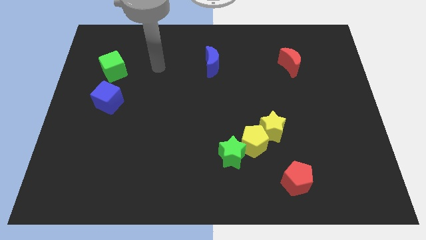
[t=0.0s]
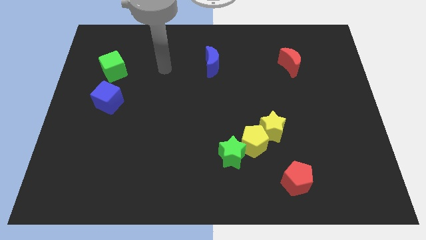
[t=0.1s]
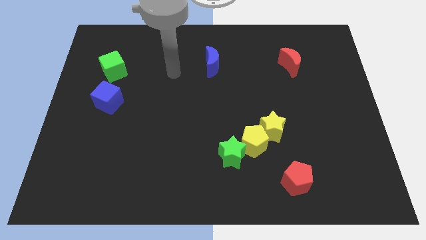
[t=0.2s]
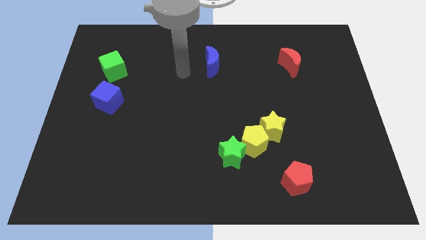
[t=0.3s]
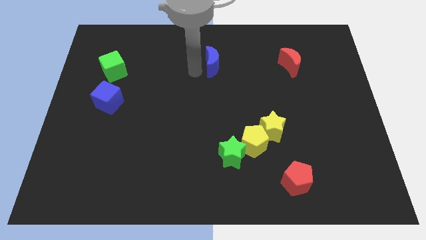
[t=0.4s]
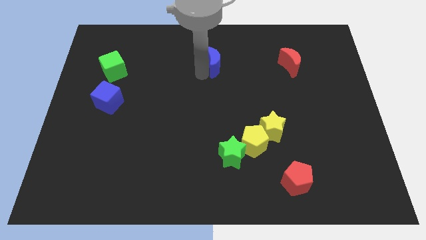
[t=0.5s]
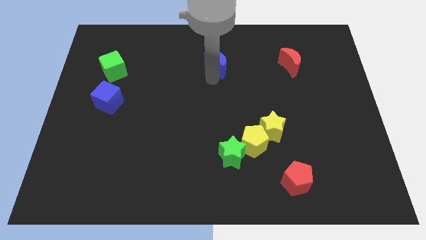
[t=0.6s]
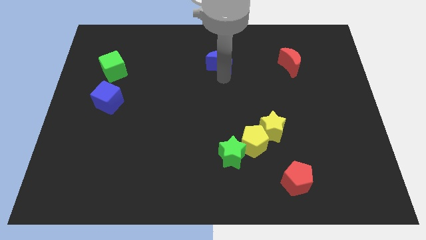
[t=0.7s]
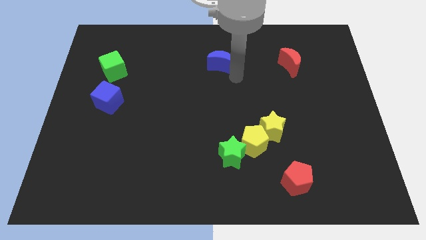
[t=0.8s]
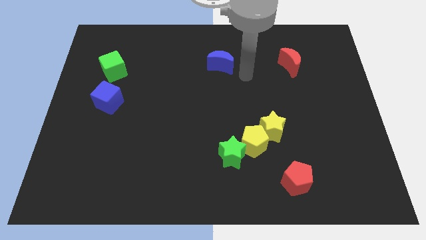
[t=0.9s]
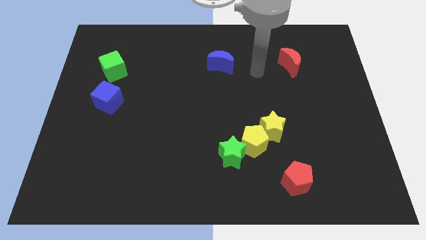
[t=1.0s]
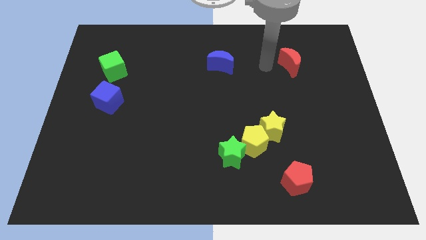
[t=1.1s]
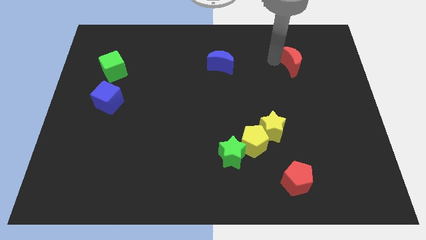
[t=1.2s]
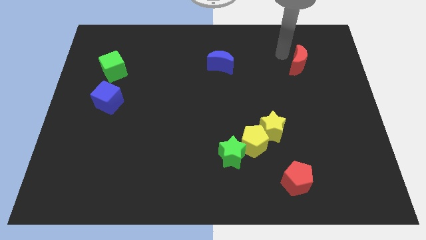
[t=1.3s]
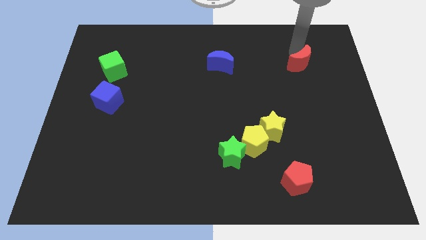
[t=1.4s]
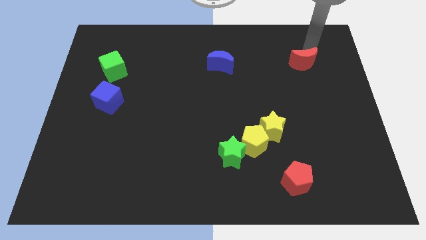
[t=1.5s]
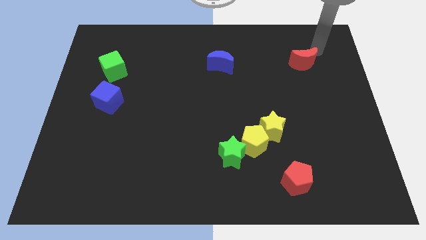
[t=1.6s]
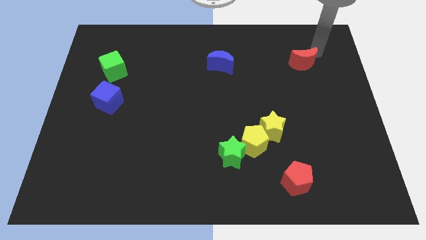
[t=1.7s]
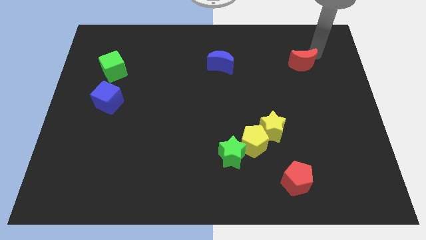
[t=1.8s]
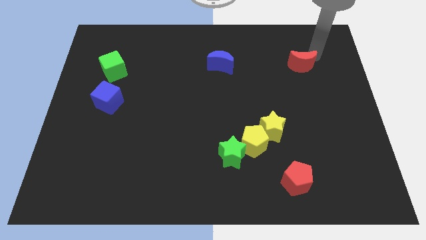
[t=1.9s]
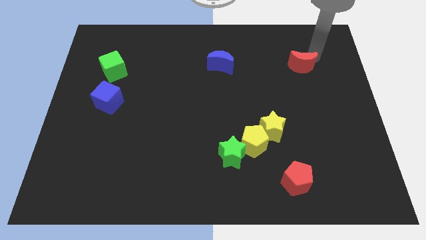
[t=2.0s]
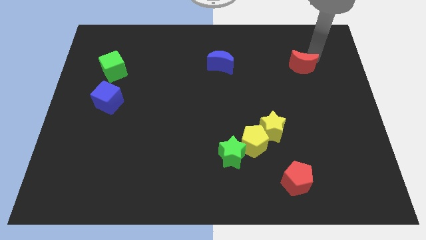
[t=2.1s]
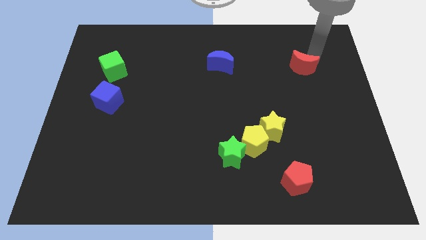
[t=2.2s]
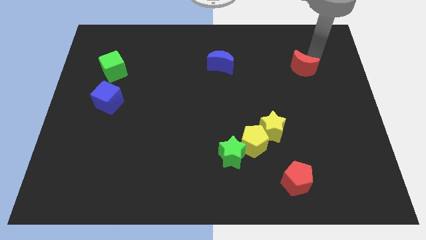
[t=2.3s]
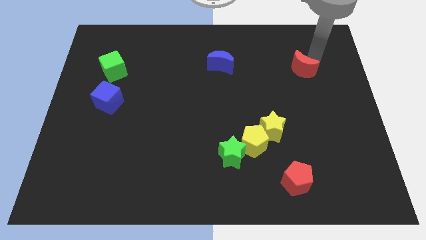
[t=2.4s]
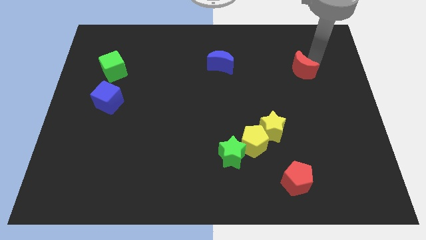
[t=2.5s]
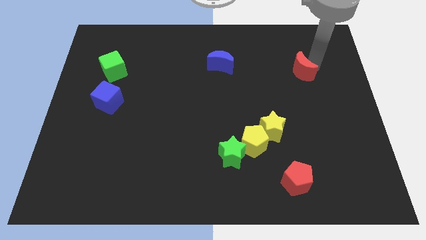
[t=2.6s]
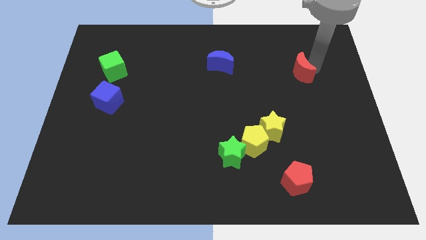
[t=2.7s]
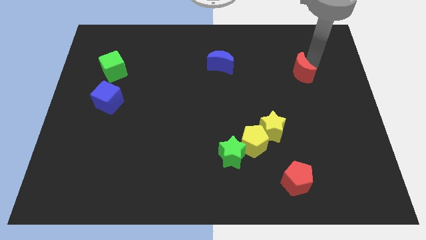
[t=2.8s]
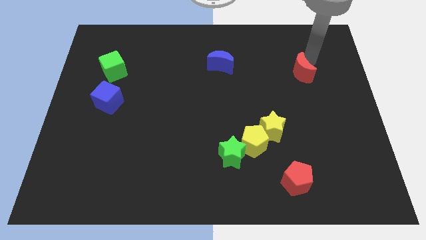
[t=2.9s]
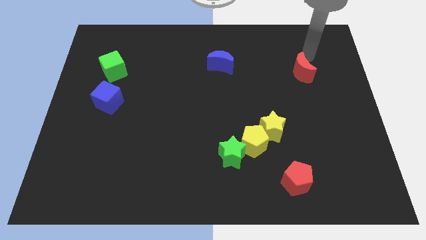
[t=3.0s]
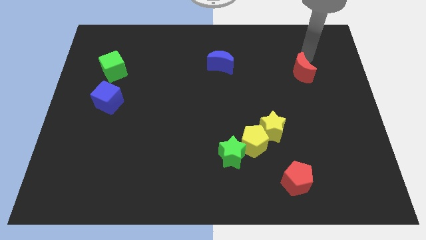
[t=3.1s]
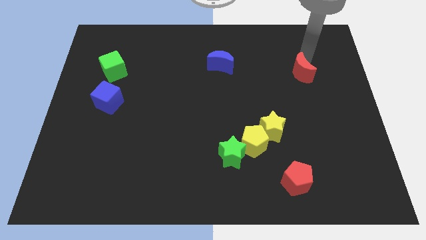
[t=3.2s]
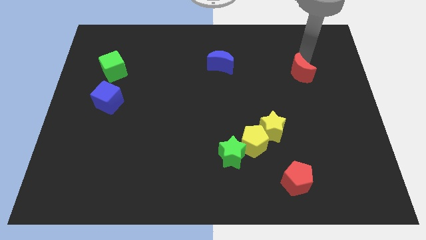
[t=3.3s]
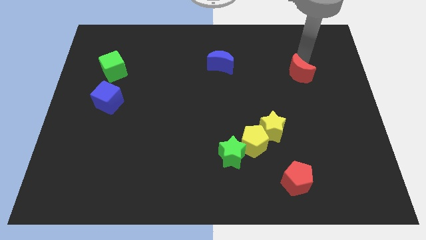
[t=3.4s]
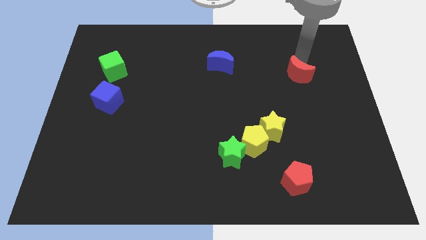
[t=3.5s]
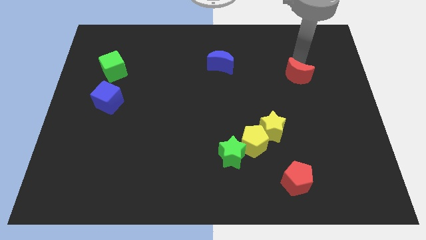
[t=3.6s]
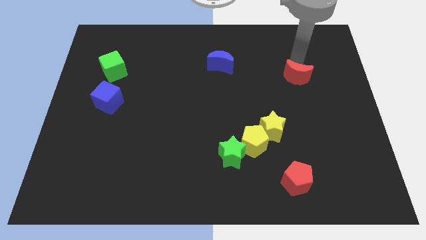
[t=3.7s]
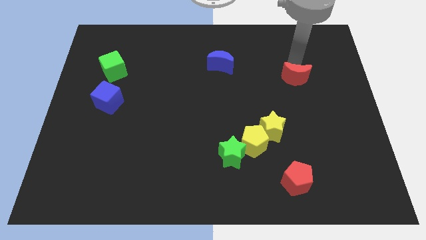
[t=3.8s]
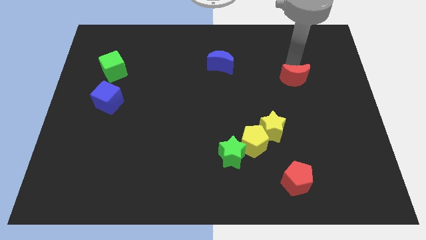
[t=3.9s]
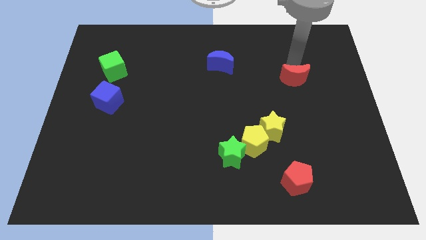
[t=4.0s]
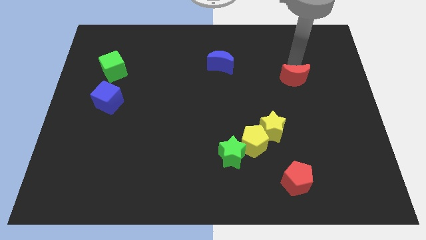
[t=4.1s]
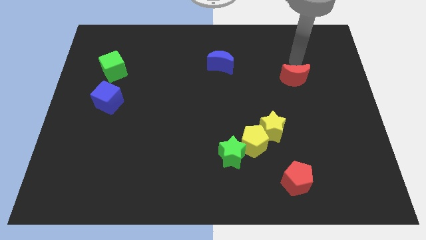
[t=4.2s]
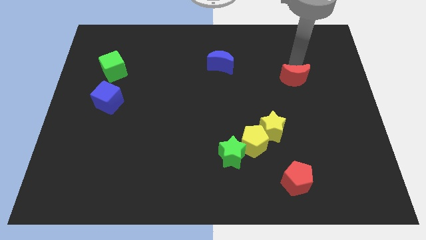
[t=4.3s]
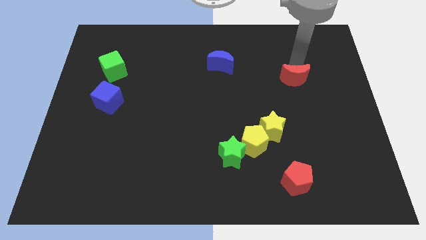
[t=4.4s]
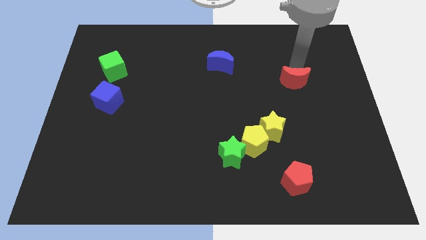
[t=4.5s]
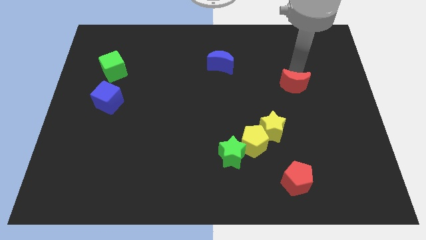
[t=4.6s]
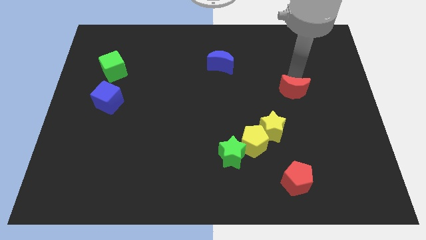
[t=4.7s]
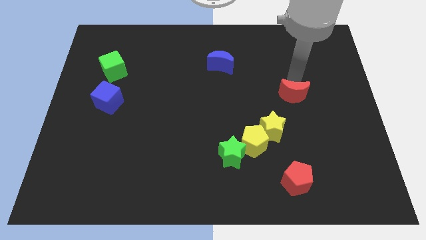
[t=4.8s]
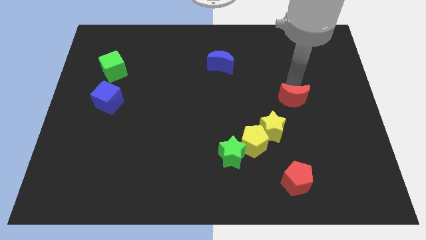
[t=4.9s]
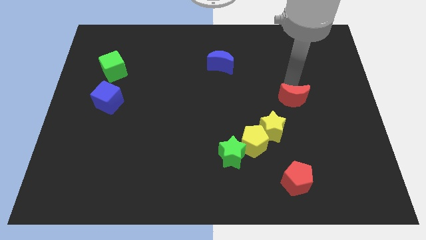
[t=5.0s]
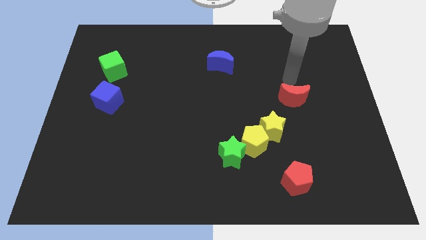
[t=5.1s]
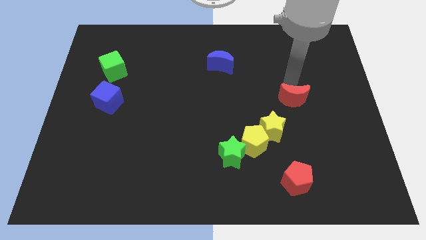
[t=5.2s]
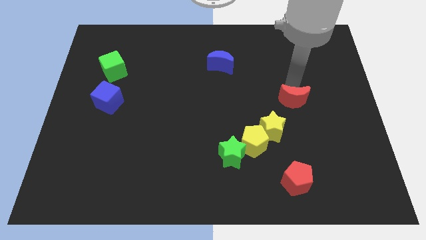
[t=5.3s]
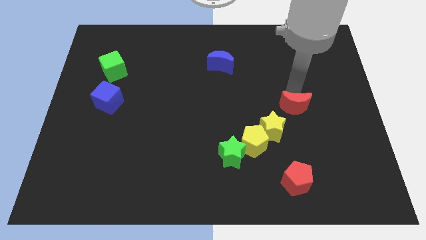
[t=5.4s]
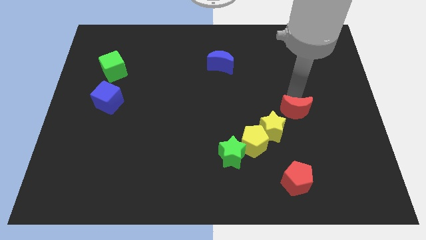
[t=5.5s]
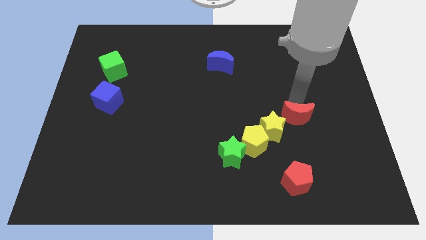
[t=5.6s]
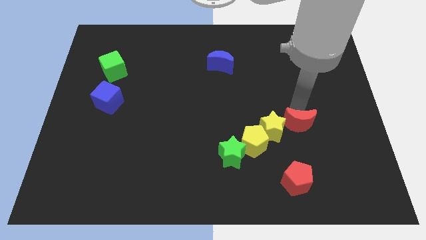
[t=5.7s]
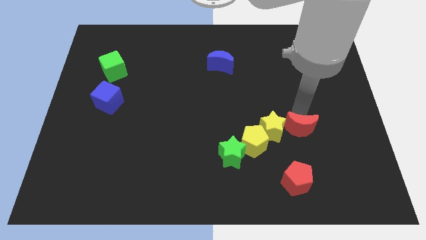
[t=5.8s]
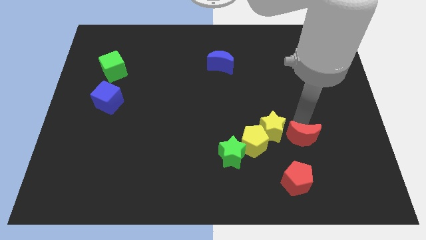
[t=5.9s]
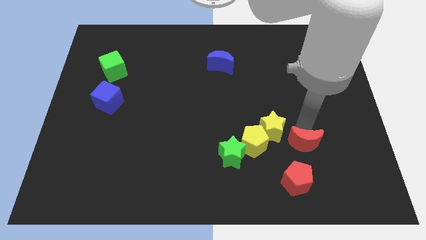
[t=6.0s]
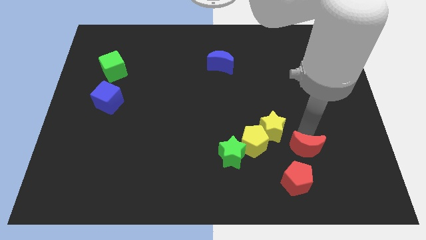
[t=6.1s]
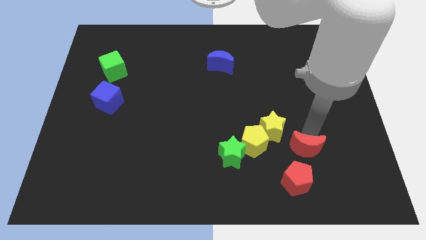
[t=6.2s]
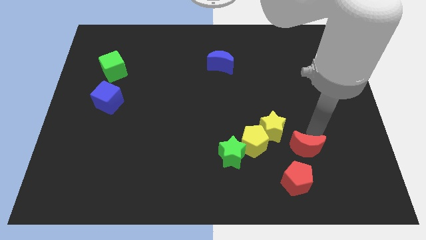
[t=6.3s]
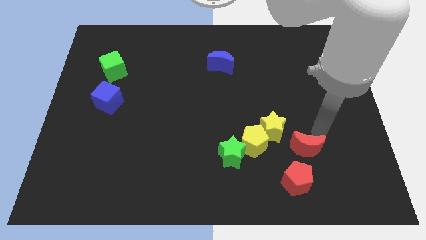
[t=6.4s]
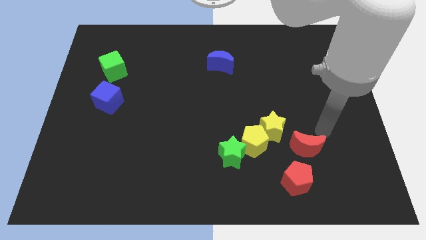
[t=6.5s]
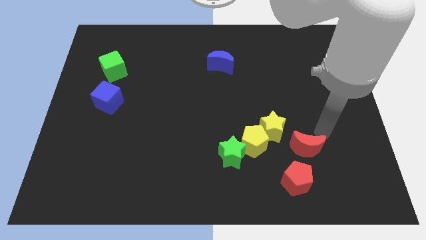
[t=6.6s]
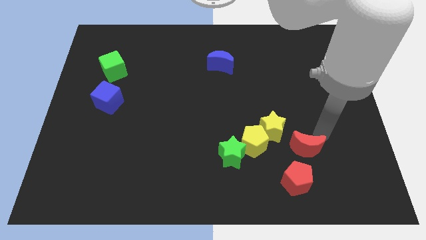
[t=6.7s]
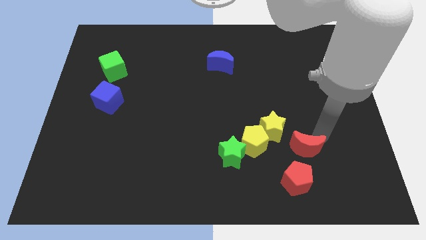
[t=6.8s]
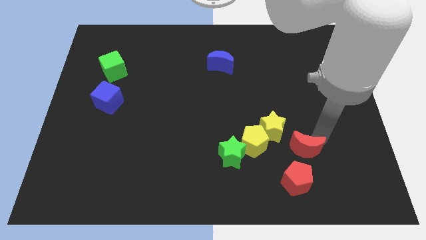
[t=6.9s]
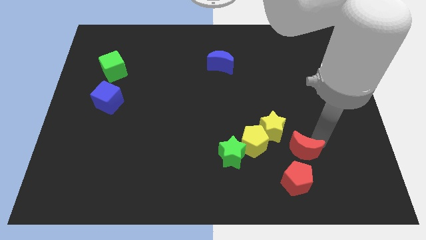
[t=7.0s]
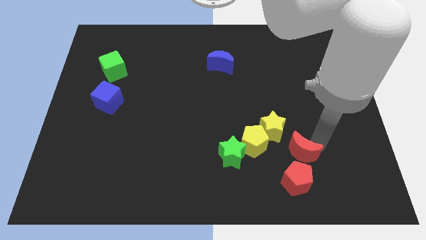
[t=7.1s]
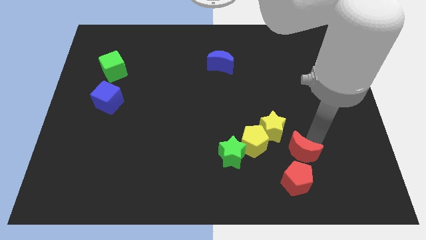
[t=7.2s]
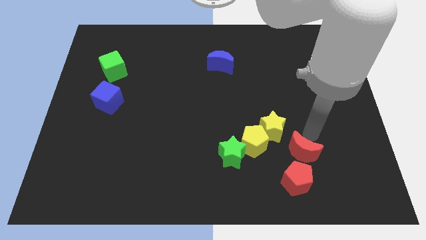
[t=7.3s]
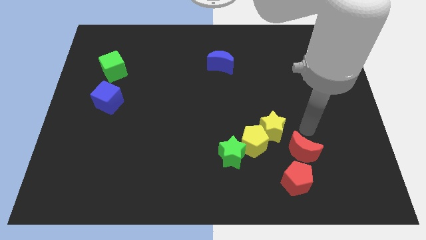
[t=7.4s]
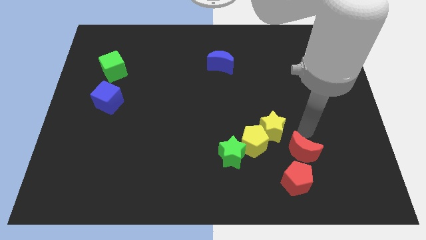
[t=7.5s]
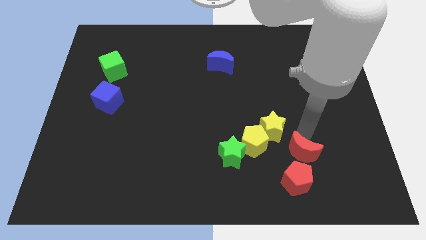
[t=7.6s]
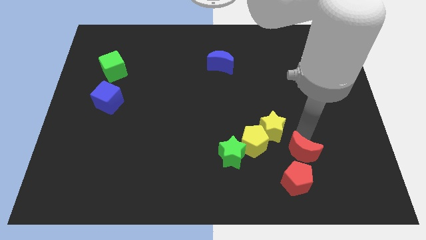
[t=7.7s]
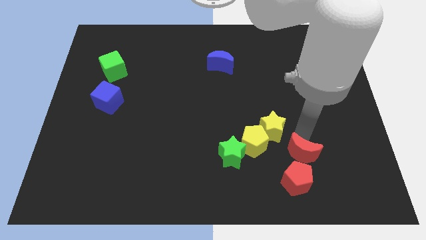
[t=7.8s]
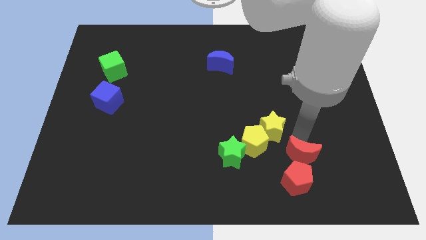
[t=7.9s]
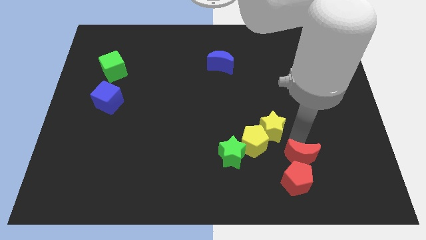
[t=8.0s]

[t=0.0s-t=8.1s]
slide the red moon to the red pentagon
